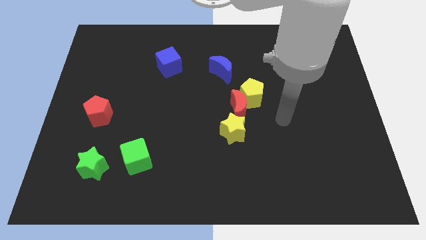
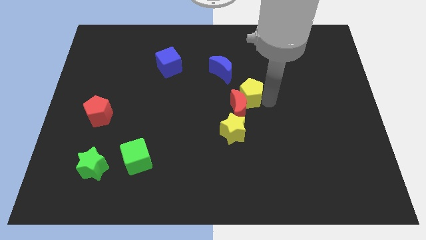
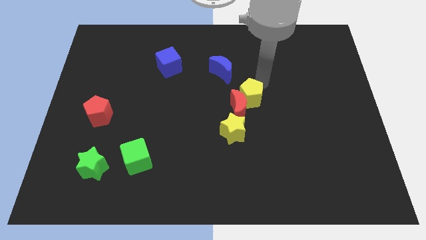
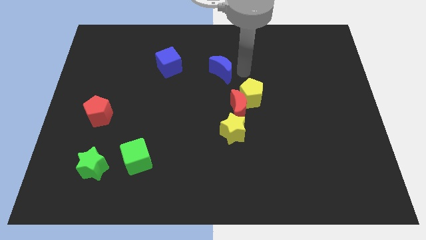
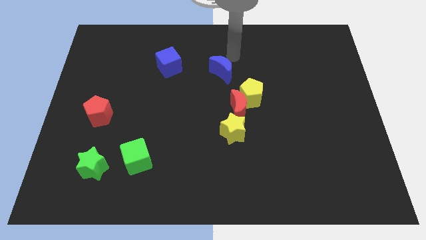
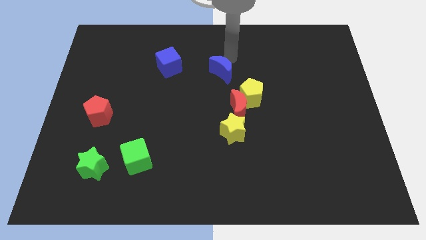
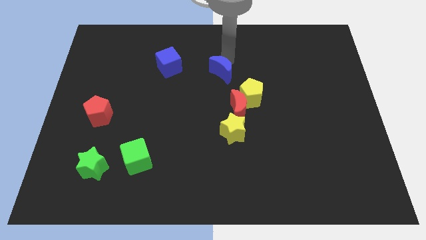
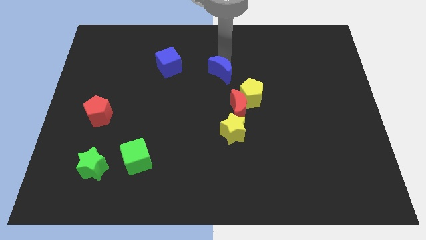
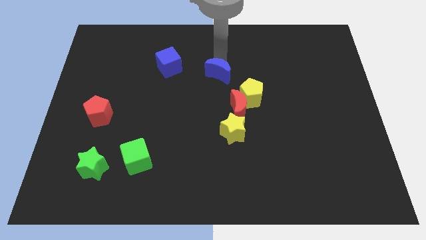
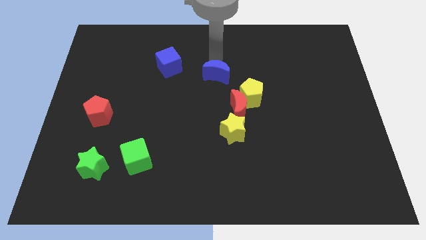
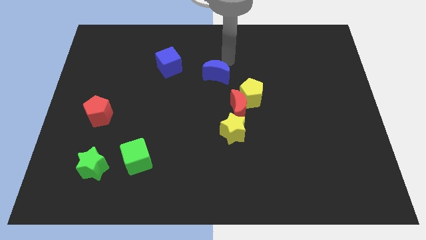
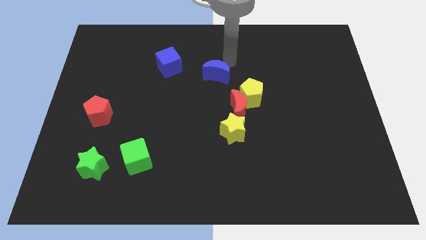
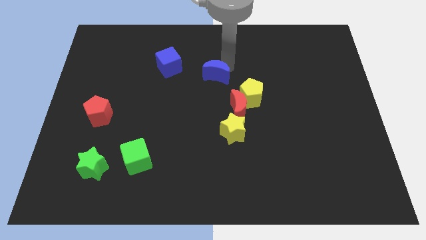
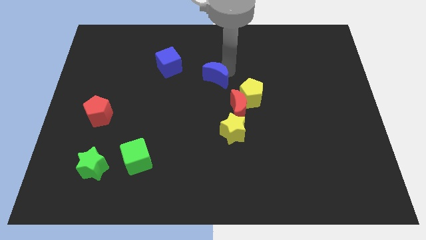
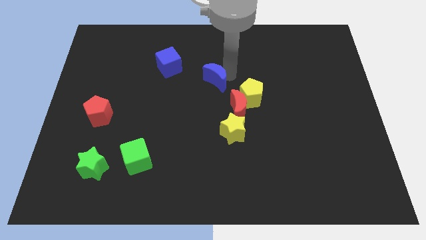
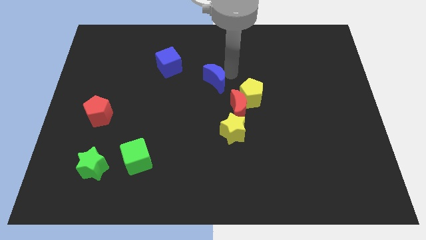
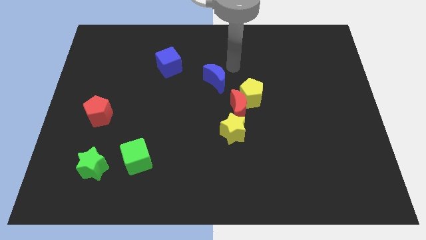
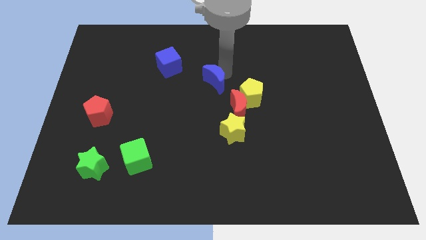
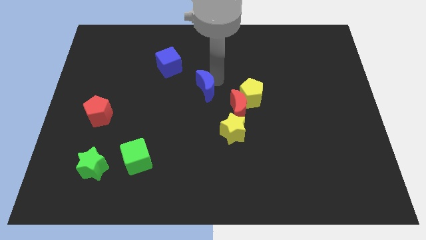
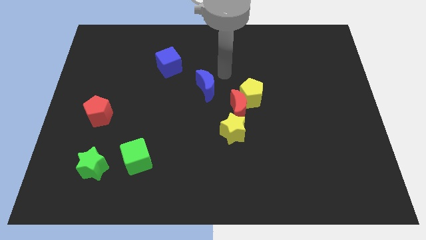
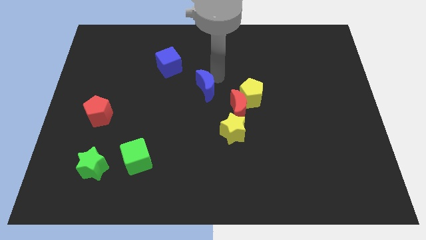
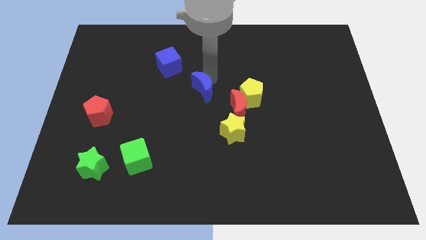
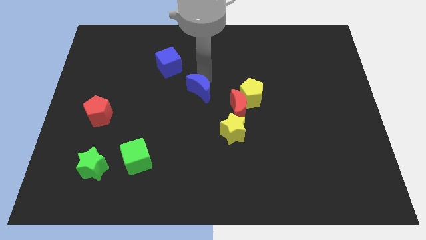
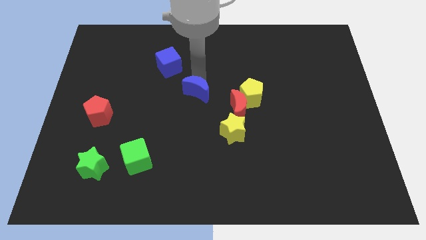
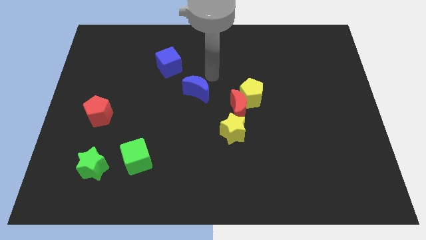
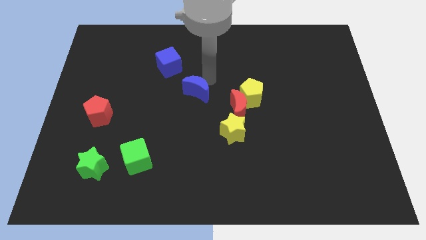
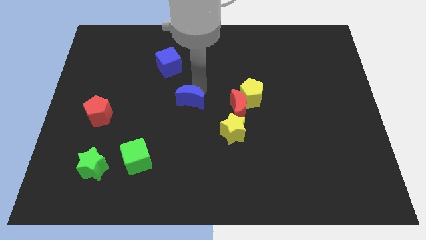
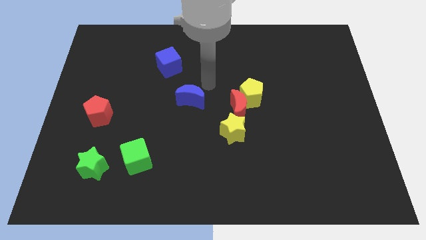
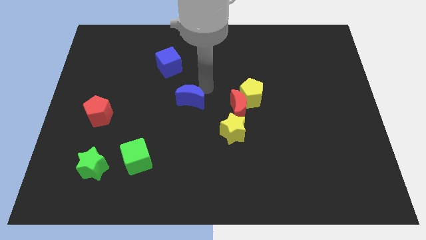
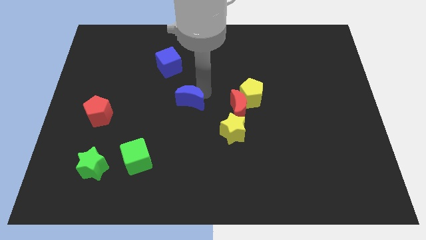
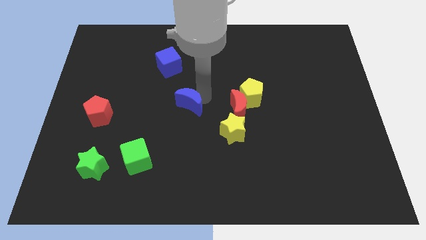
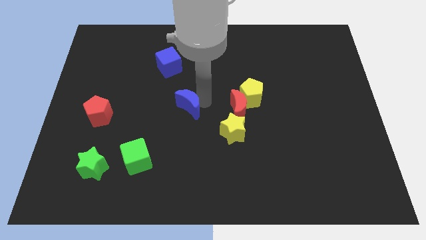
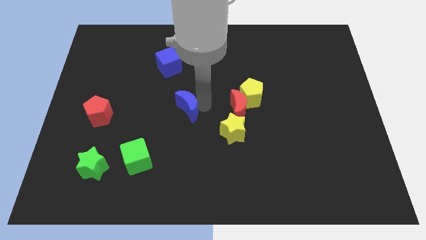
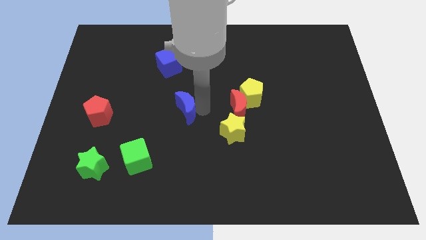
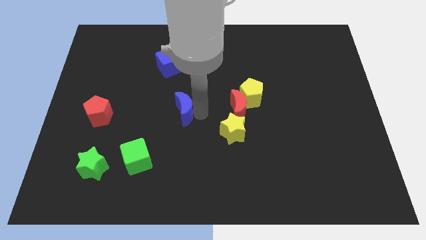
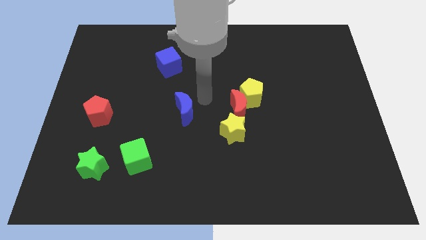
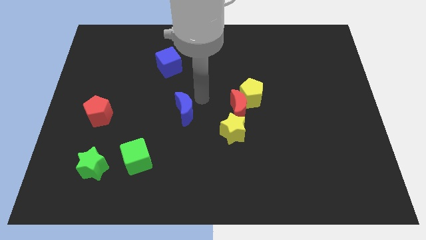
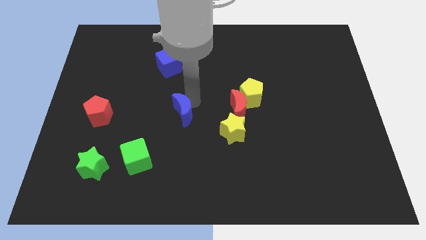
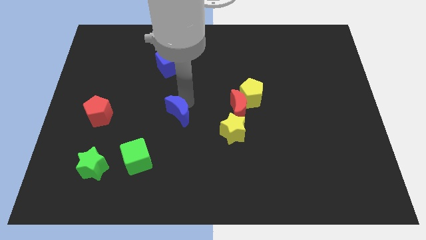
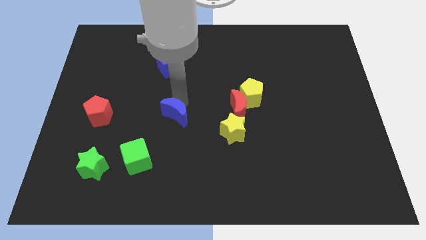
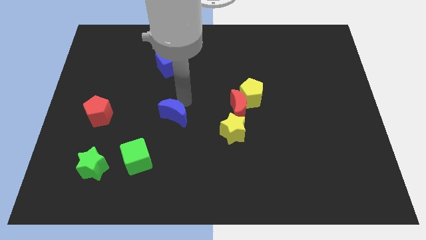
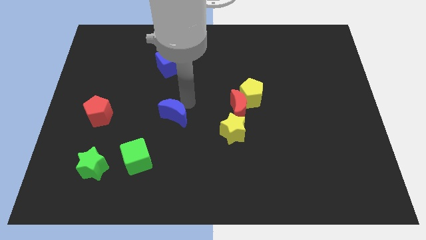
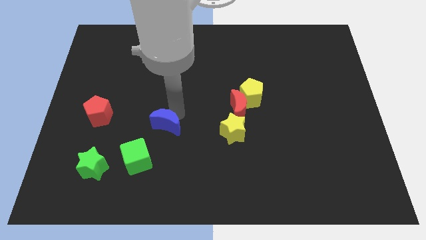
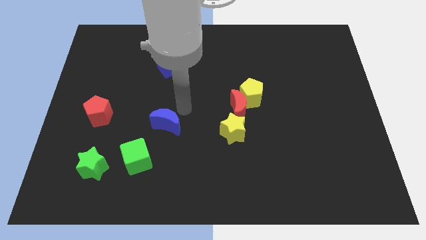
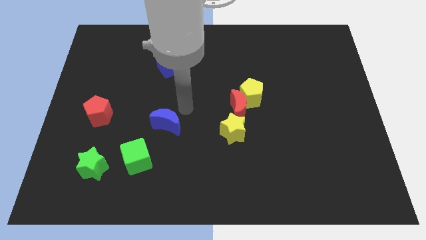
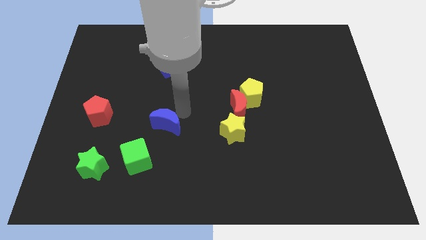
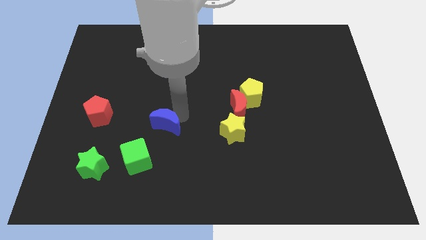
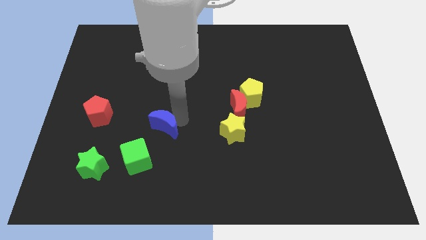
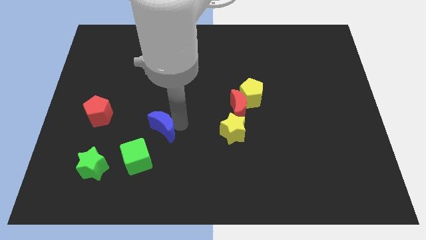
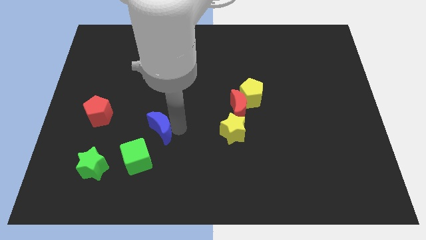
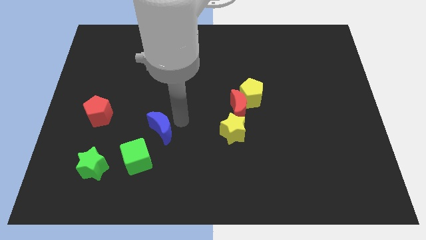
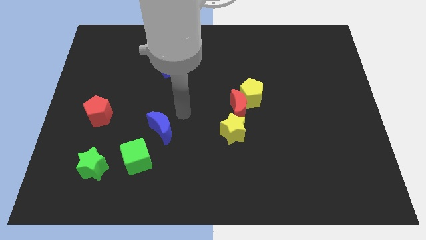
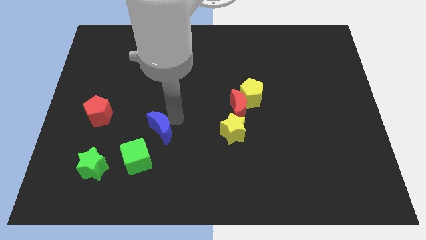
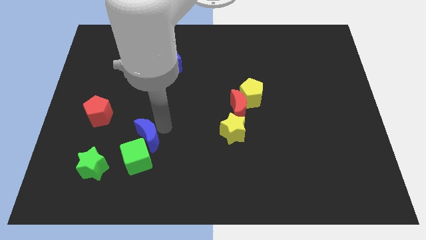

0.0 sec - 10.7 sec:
move the blue moon towards the green cube

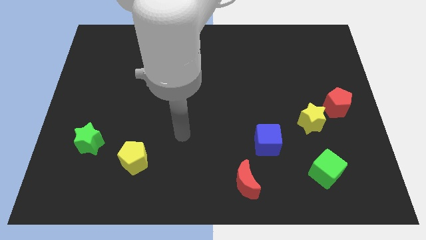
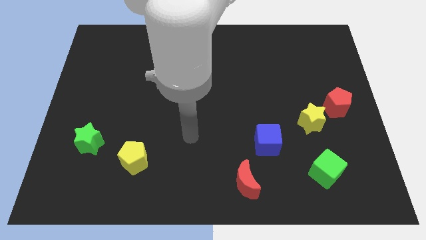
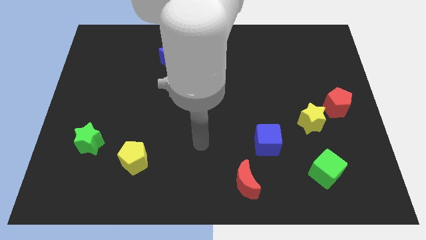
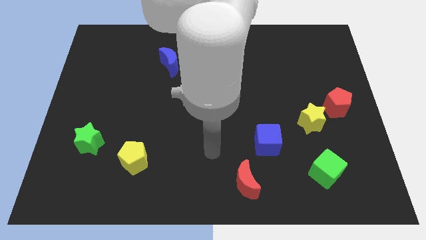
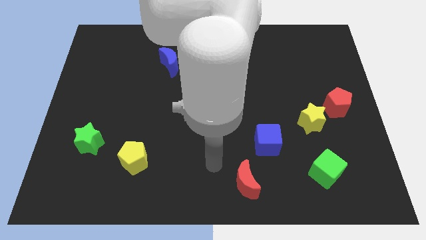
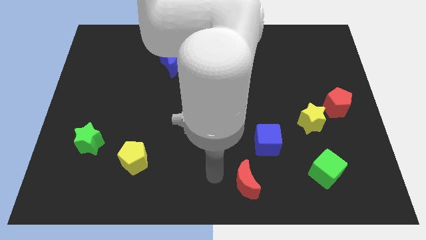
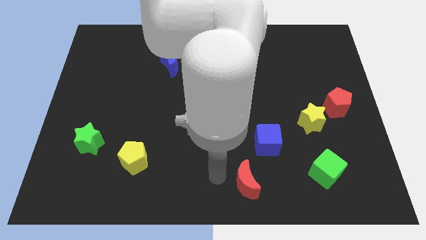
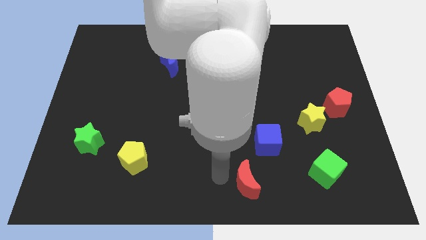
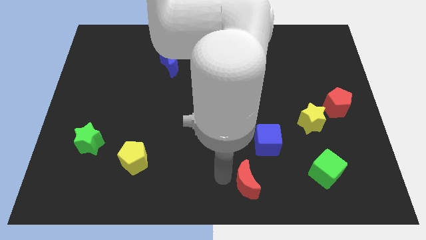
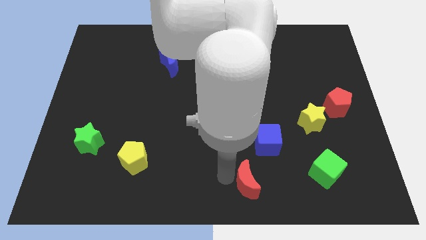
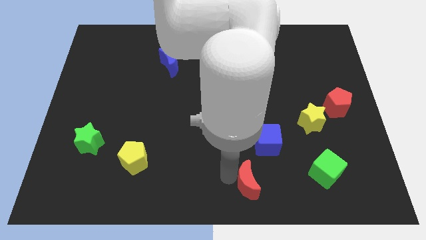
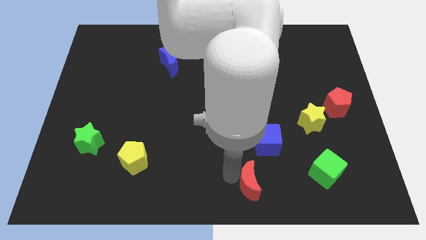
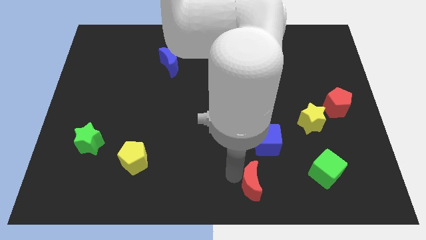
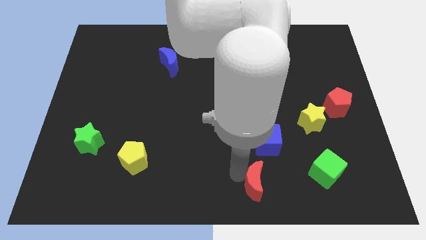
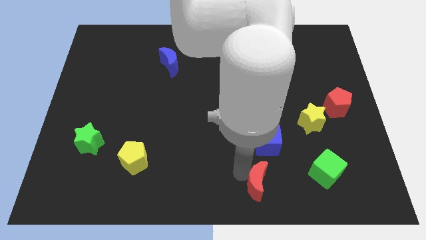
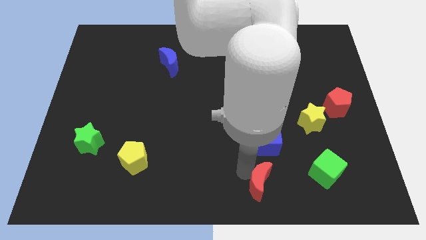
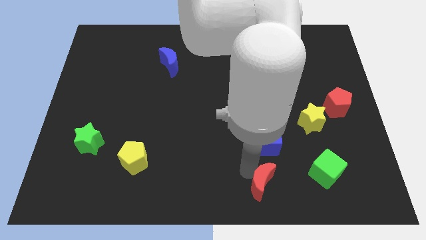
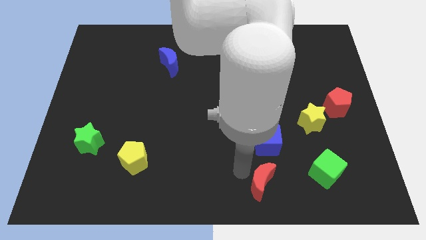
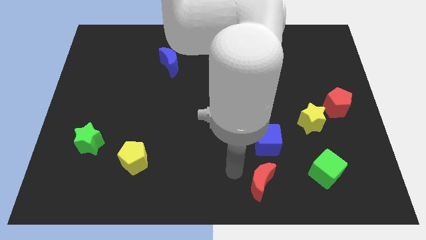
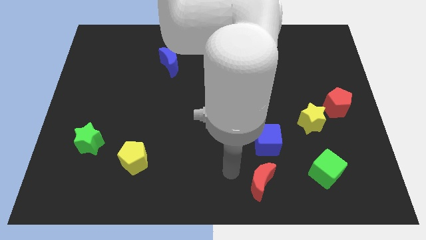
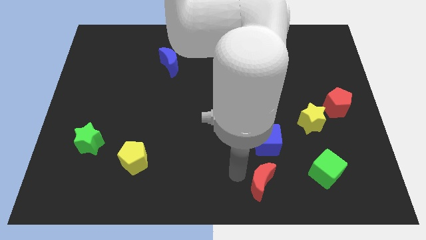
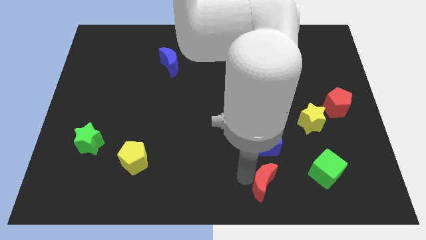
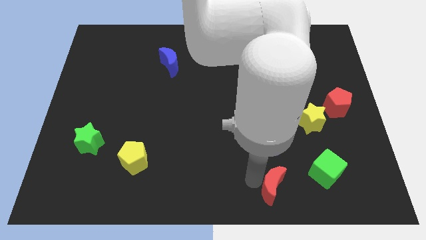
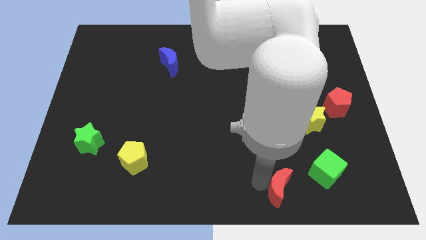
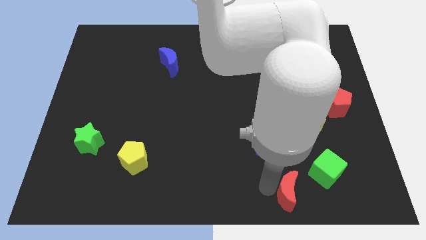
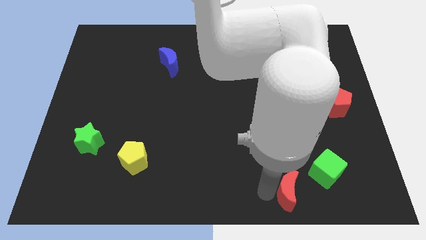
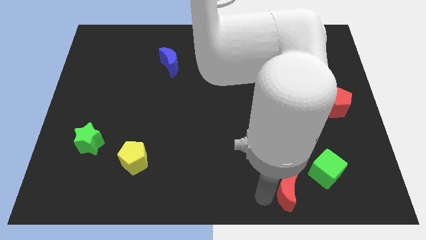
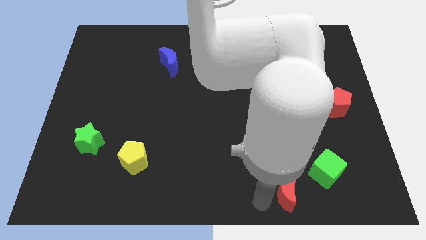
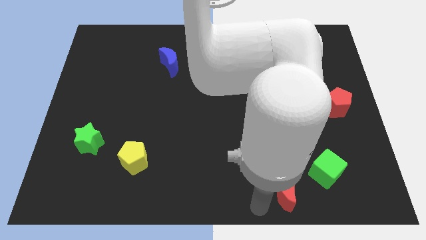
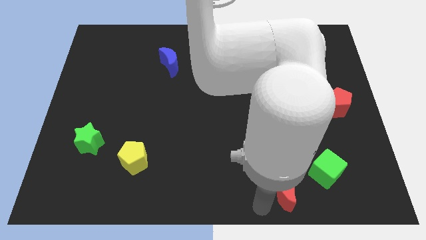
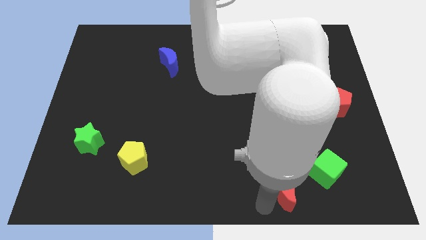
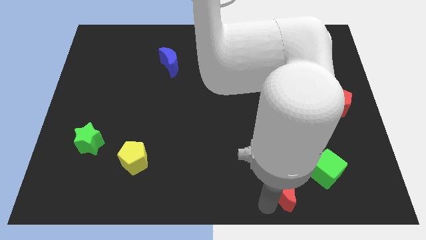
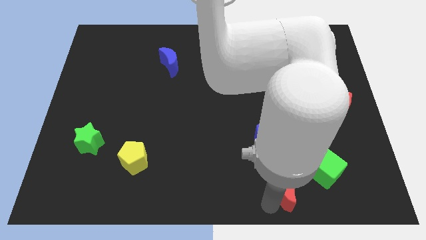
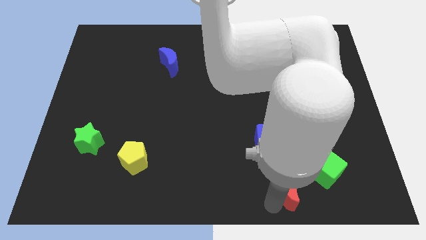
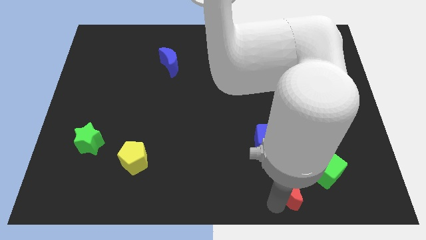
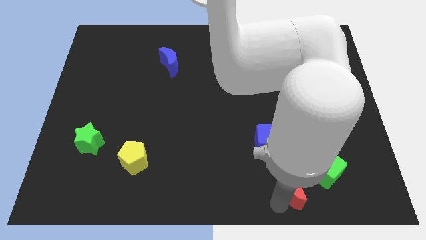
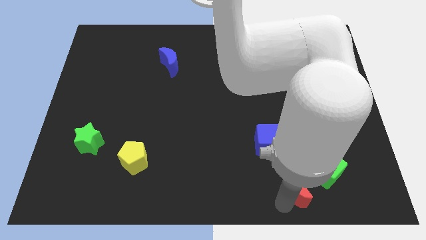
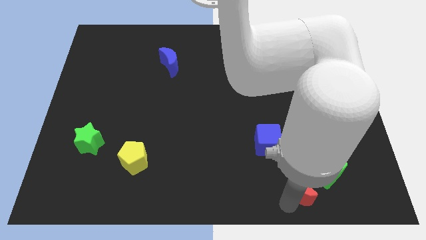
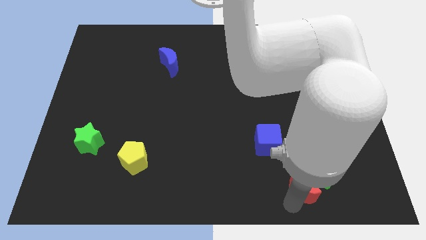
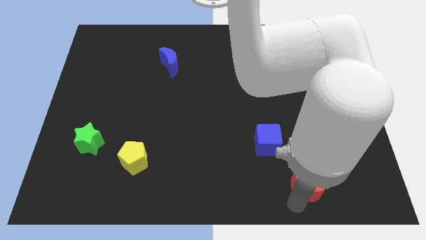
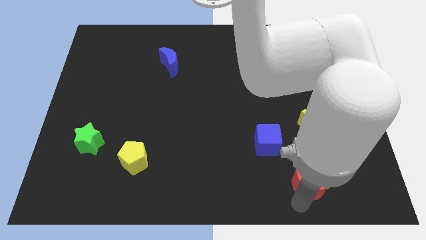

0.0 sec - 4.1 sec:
move the red moon towards the green cube
